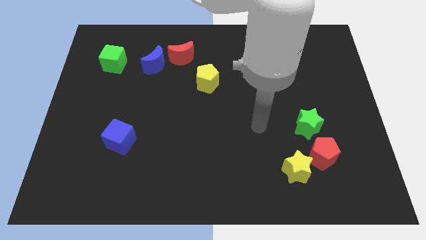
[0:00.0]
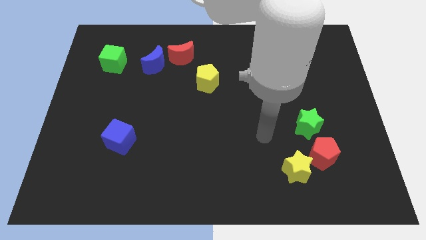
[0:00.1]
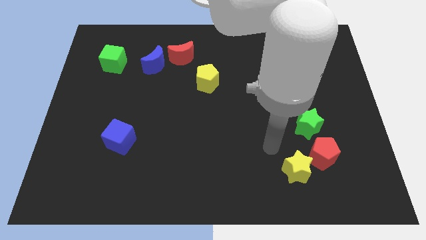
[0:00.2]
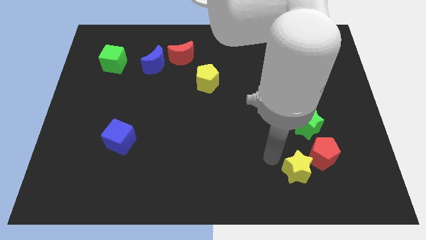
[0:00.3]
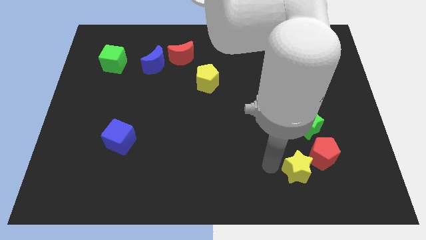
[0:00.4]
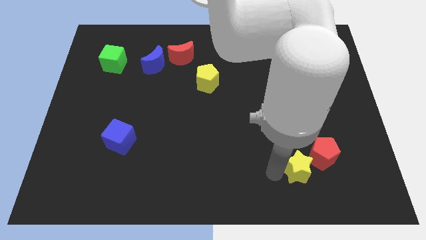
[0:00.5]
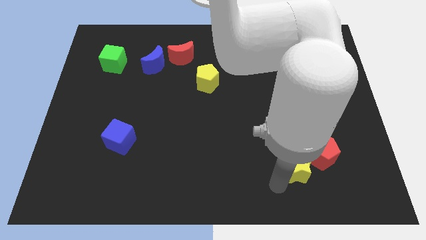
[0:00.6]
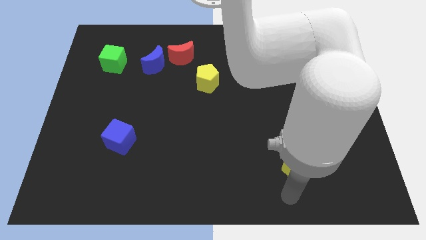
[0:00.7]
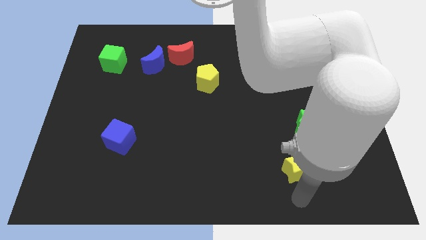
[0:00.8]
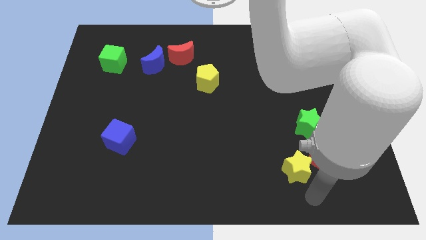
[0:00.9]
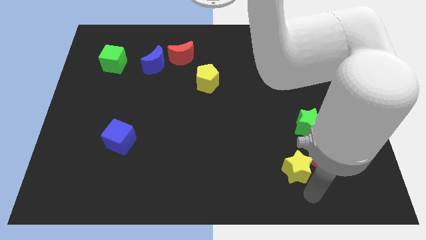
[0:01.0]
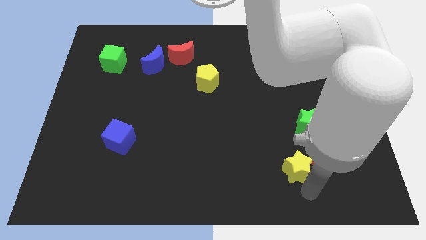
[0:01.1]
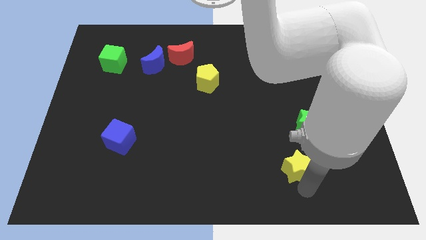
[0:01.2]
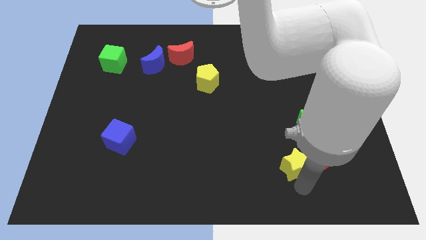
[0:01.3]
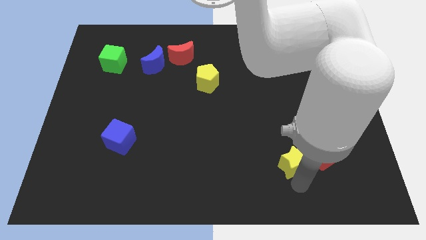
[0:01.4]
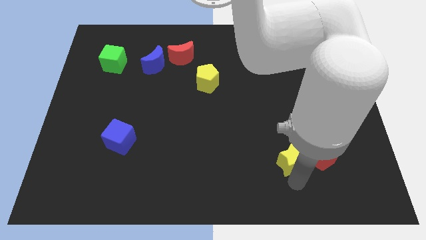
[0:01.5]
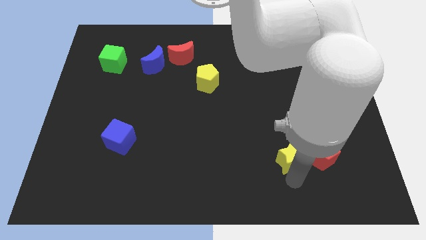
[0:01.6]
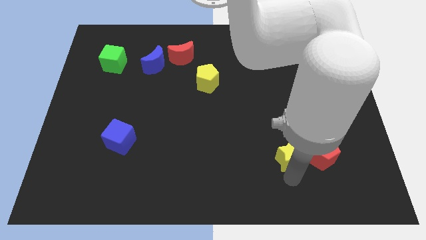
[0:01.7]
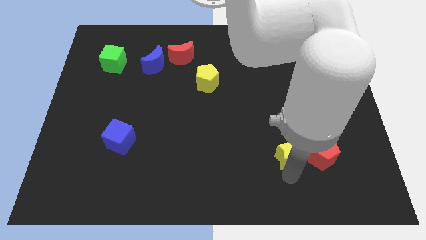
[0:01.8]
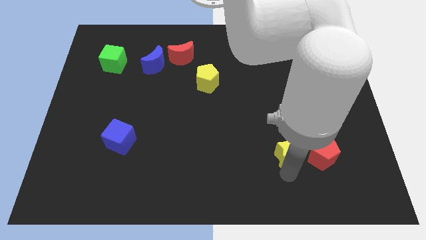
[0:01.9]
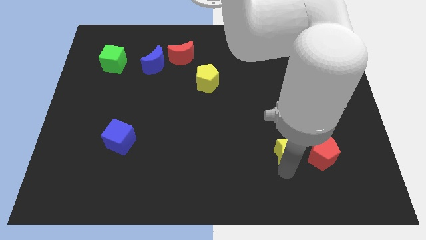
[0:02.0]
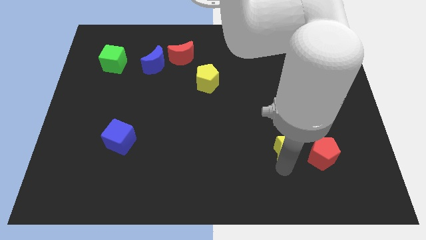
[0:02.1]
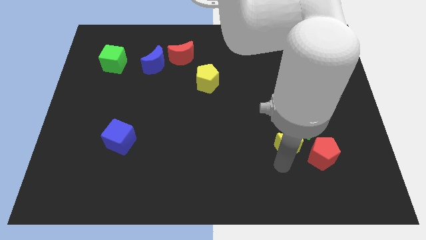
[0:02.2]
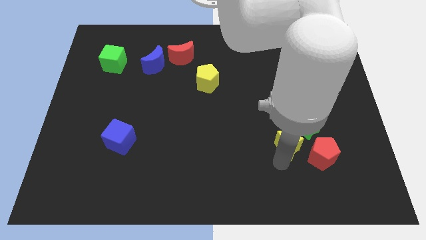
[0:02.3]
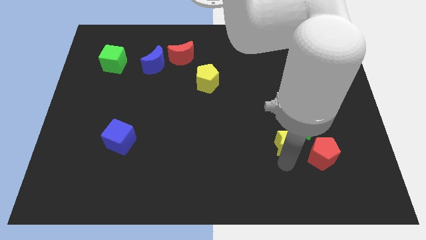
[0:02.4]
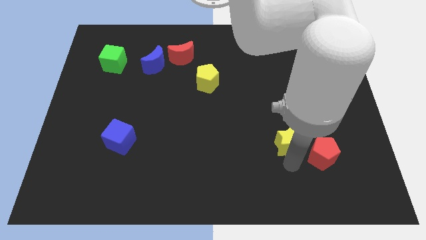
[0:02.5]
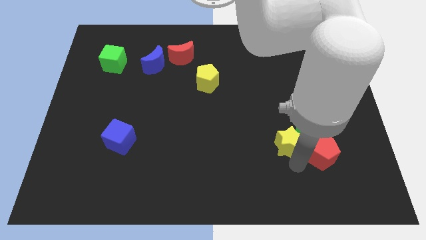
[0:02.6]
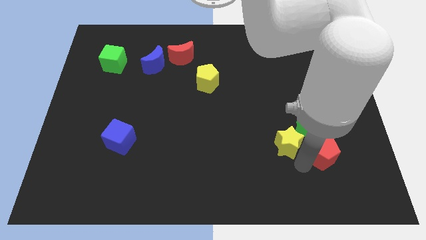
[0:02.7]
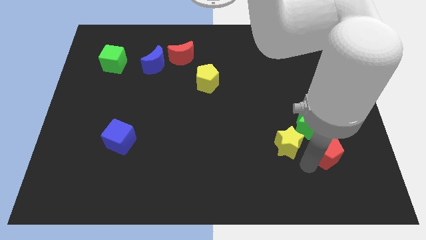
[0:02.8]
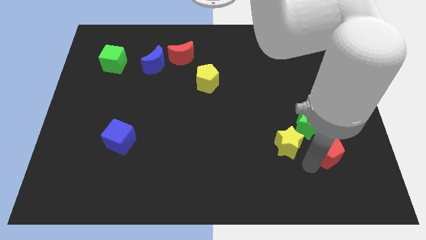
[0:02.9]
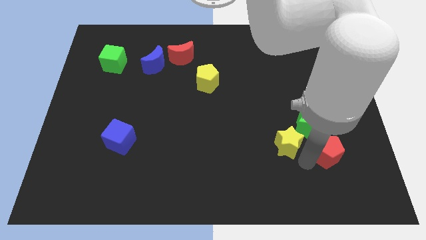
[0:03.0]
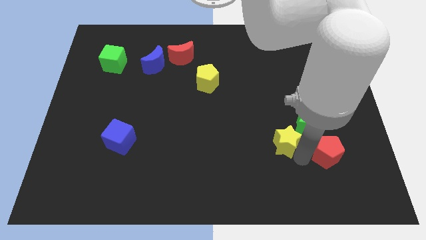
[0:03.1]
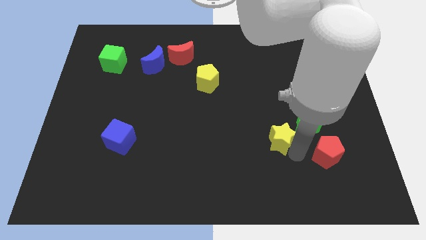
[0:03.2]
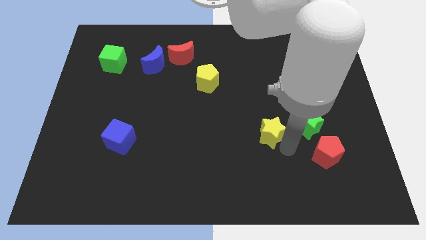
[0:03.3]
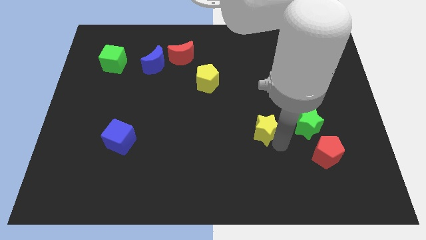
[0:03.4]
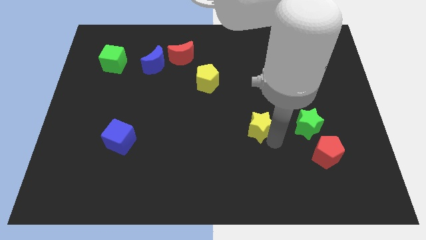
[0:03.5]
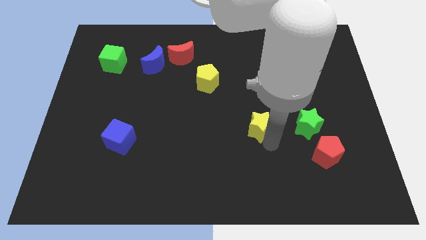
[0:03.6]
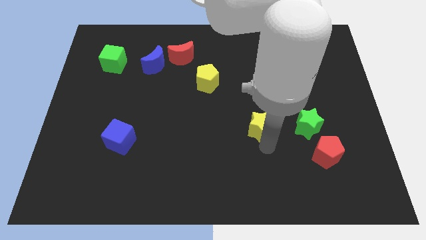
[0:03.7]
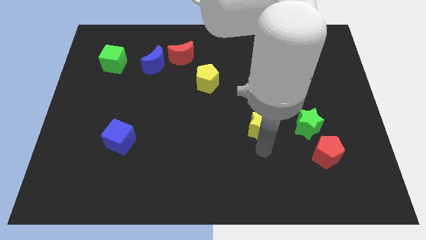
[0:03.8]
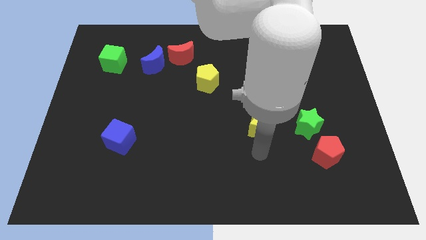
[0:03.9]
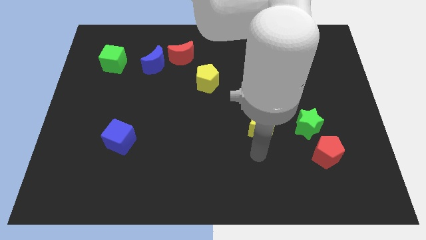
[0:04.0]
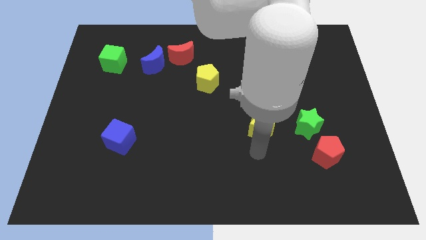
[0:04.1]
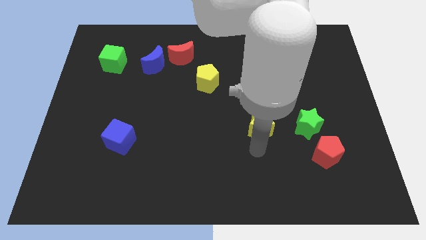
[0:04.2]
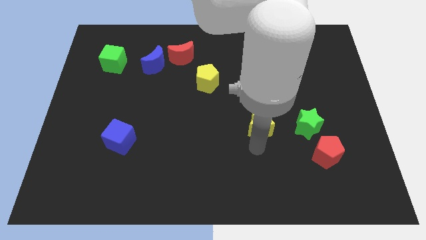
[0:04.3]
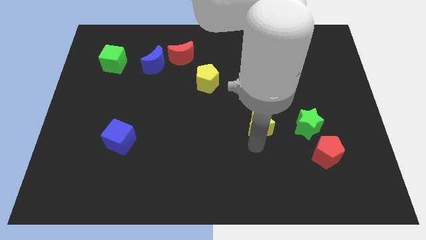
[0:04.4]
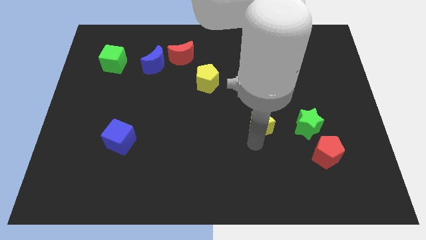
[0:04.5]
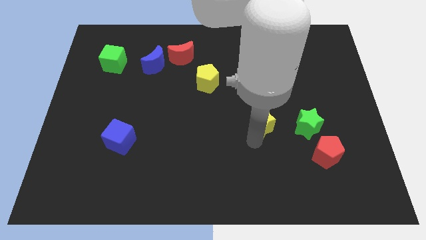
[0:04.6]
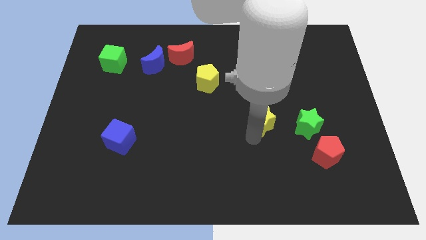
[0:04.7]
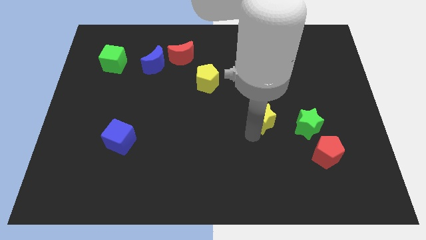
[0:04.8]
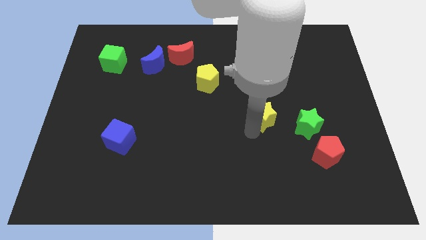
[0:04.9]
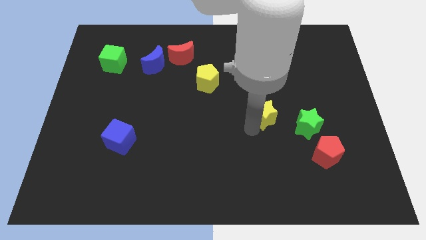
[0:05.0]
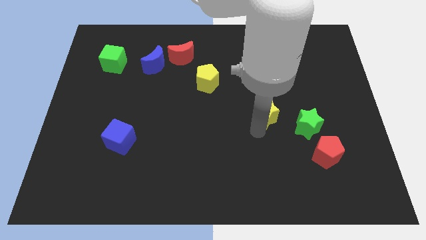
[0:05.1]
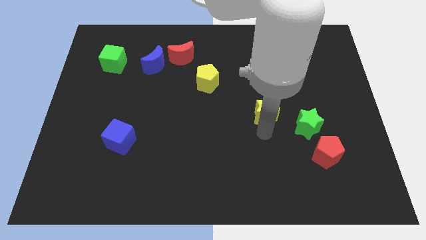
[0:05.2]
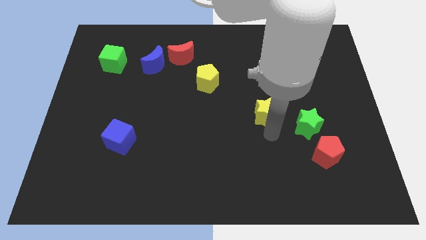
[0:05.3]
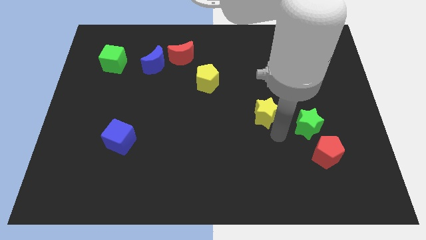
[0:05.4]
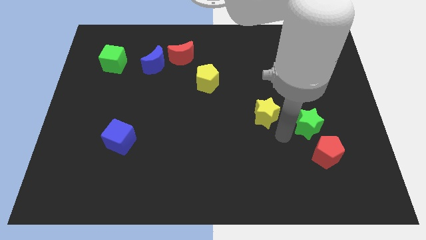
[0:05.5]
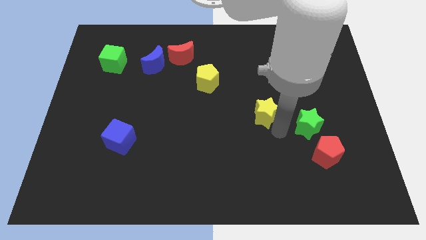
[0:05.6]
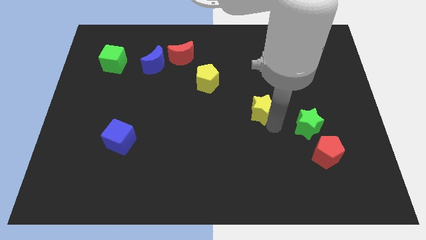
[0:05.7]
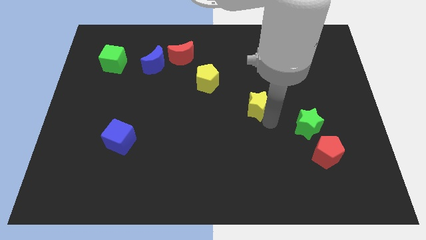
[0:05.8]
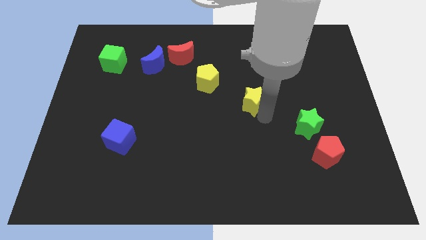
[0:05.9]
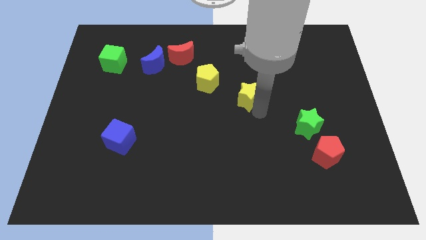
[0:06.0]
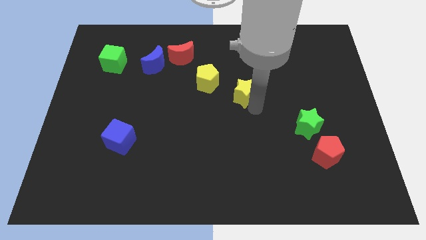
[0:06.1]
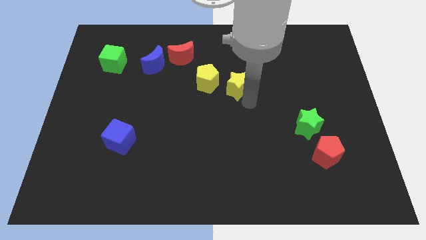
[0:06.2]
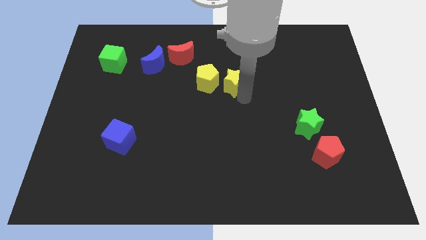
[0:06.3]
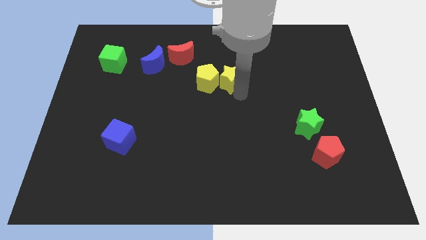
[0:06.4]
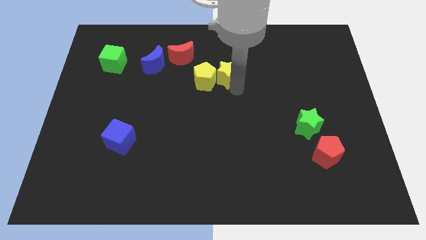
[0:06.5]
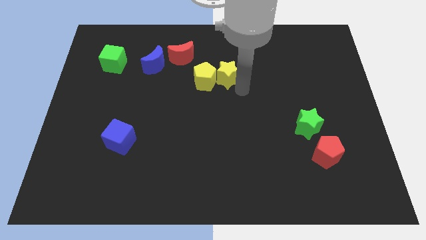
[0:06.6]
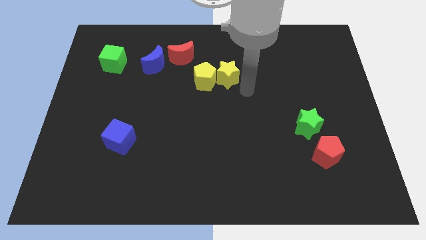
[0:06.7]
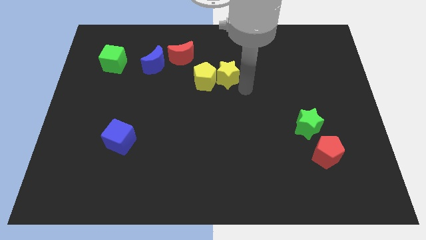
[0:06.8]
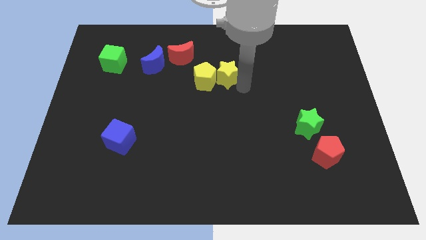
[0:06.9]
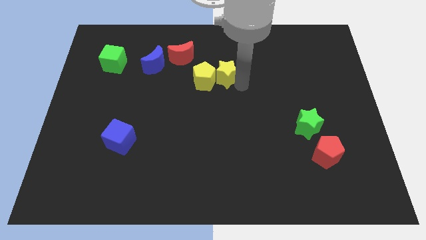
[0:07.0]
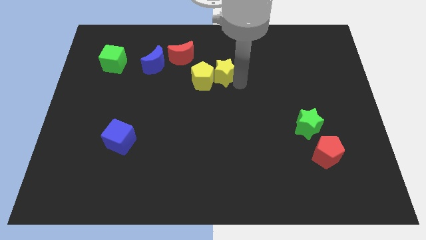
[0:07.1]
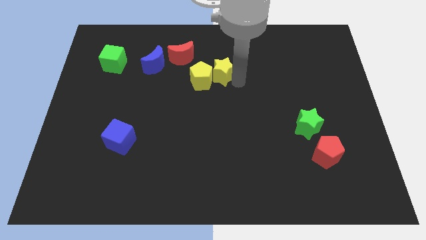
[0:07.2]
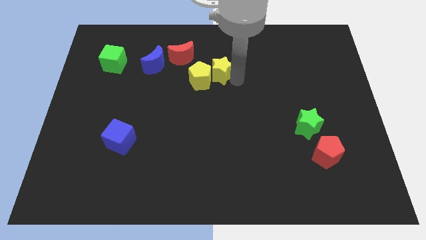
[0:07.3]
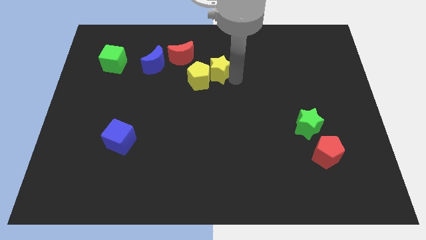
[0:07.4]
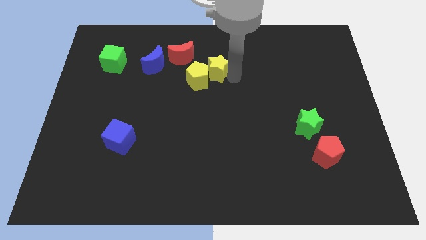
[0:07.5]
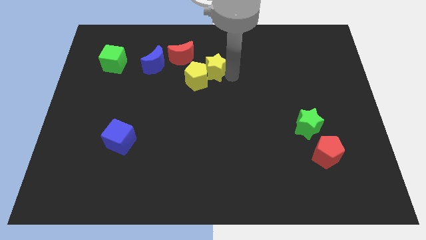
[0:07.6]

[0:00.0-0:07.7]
push the yellow star right of the blue moon
